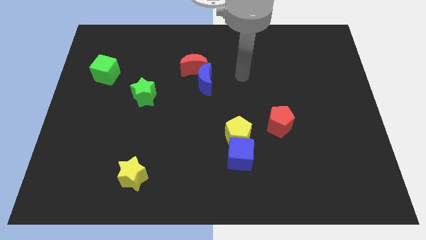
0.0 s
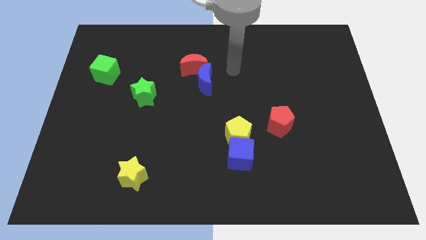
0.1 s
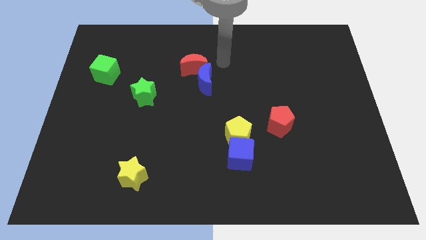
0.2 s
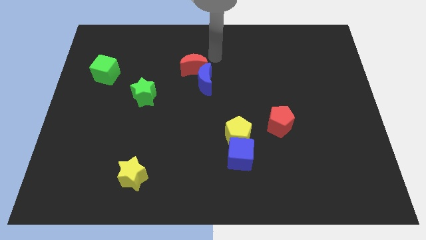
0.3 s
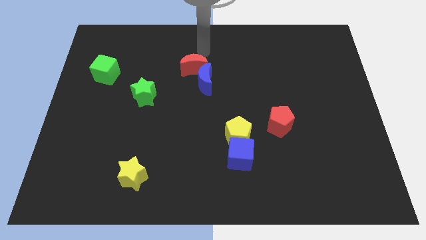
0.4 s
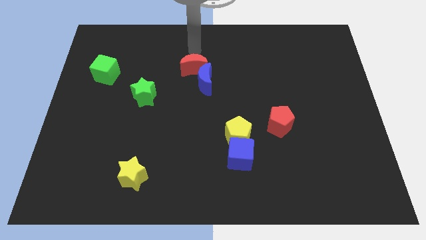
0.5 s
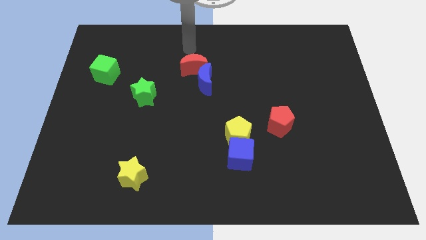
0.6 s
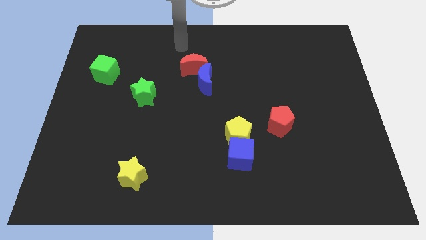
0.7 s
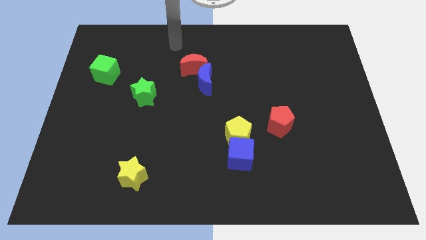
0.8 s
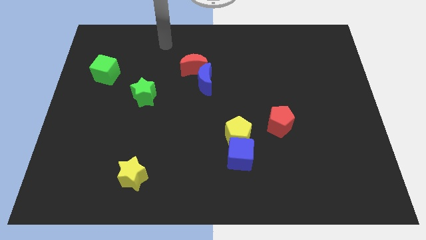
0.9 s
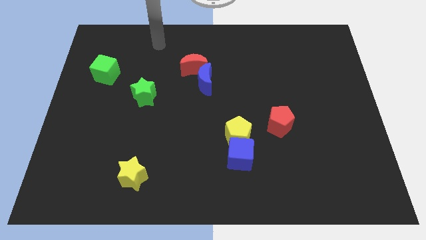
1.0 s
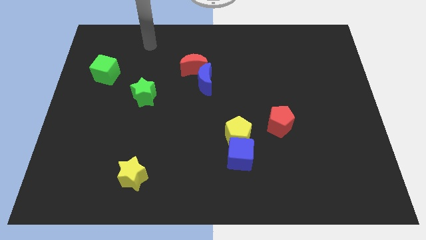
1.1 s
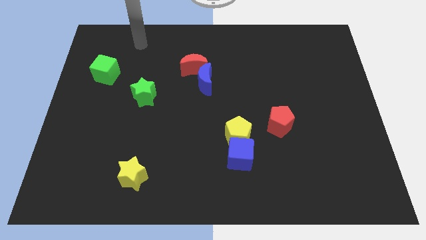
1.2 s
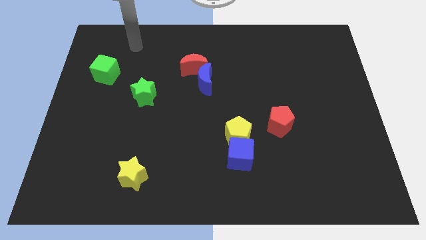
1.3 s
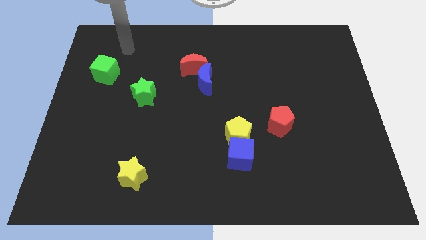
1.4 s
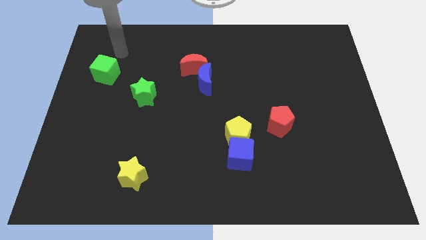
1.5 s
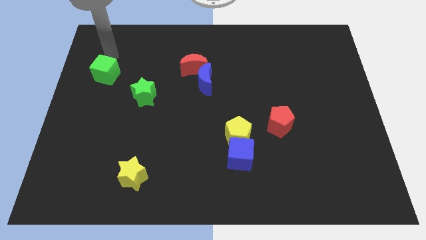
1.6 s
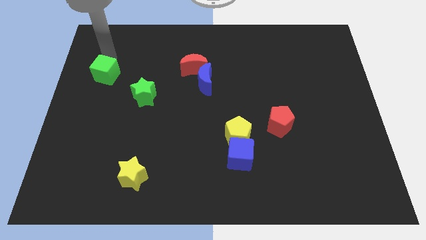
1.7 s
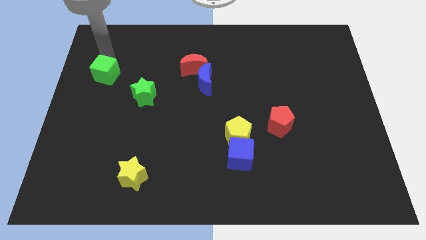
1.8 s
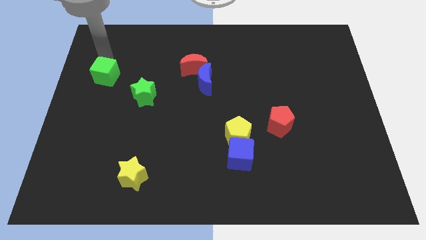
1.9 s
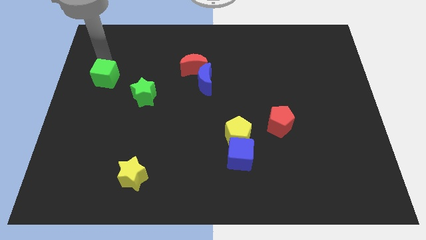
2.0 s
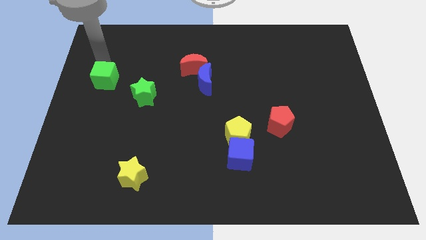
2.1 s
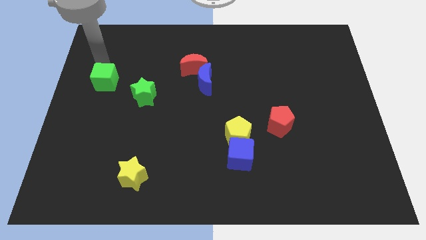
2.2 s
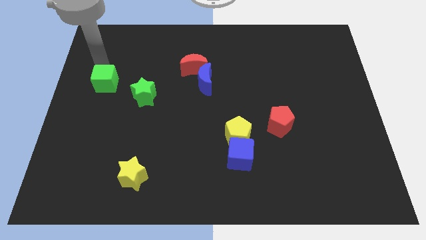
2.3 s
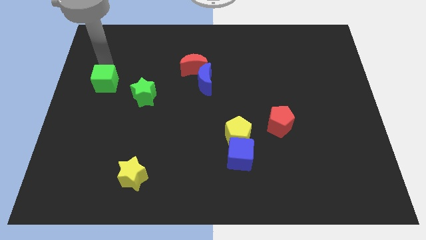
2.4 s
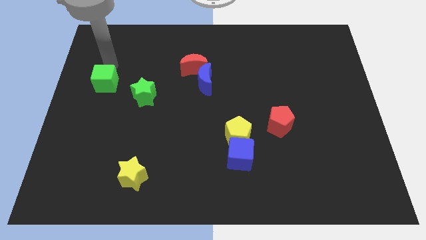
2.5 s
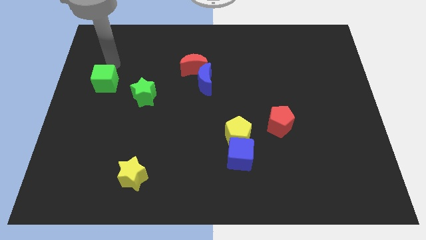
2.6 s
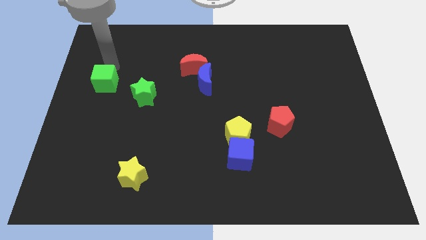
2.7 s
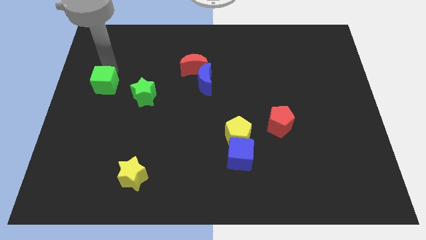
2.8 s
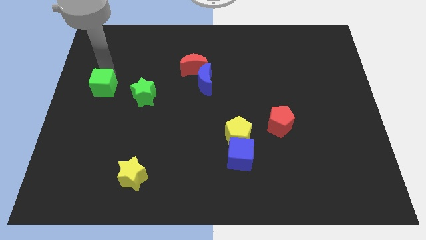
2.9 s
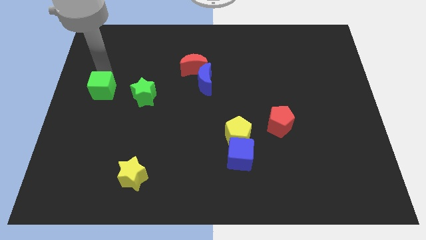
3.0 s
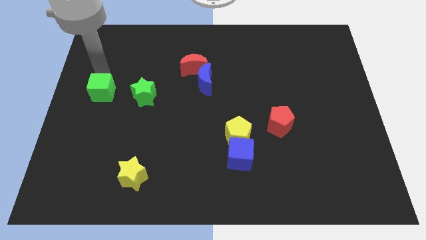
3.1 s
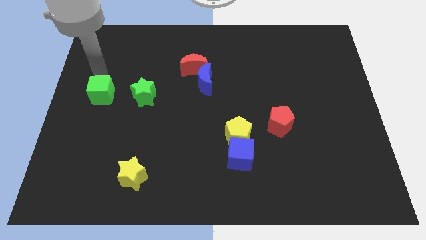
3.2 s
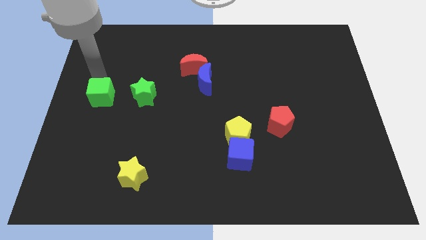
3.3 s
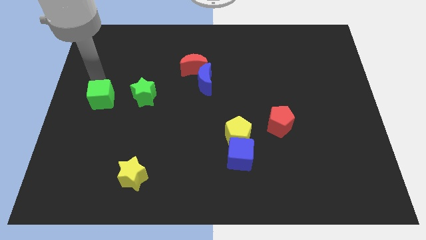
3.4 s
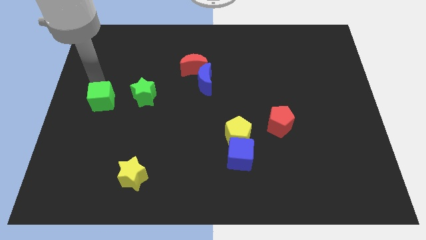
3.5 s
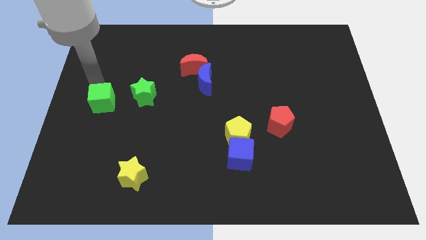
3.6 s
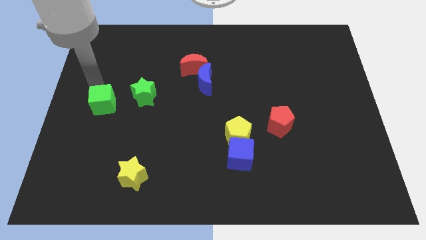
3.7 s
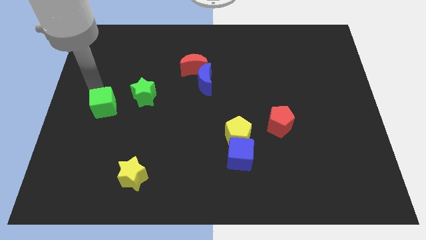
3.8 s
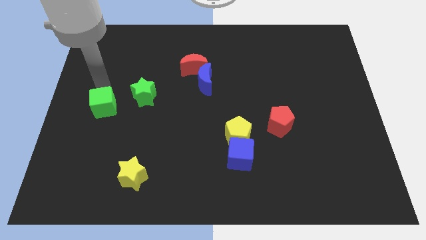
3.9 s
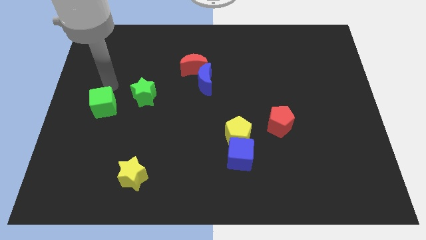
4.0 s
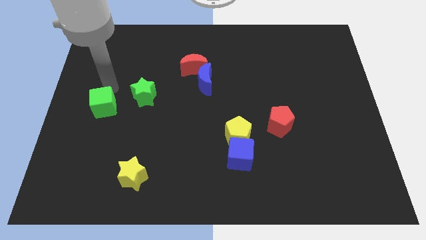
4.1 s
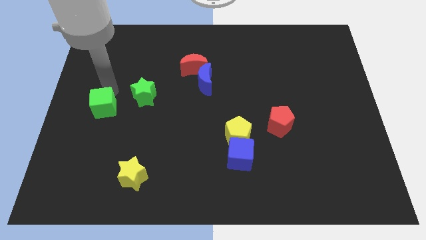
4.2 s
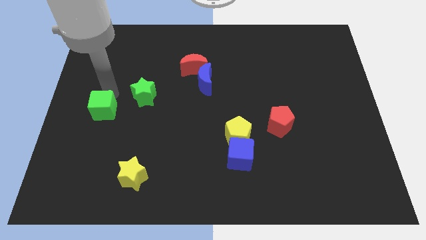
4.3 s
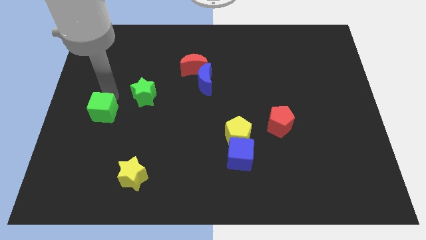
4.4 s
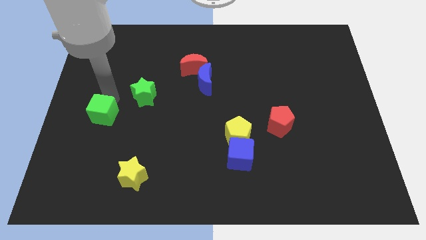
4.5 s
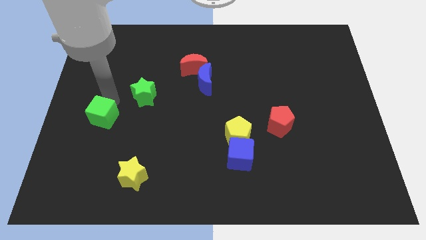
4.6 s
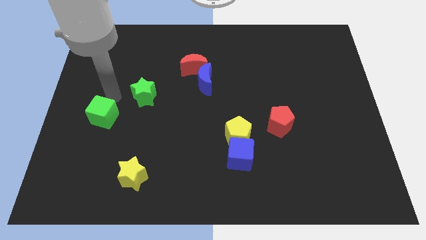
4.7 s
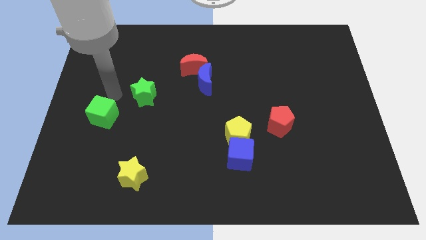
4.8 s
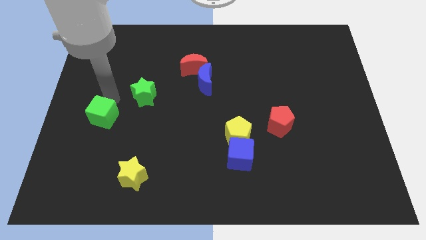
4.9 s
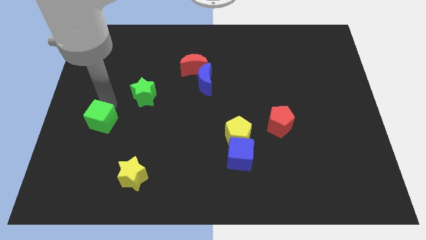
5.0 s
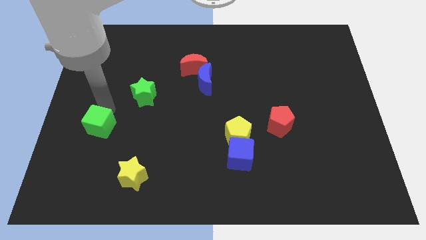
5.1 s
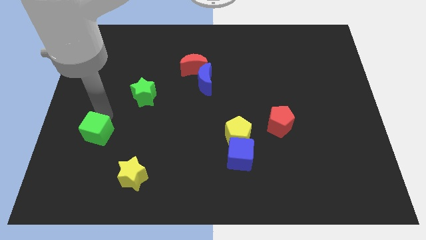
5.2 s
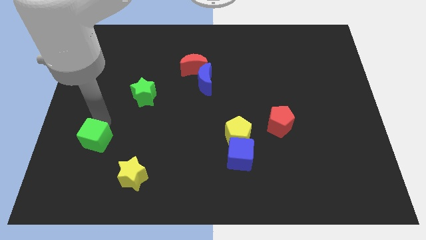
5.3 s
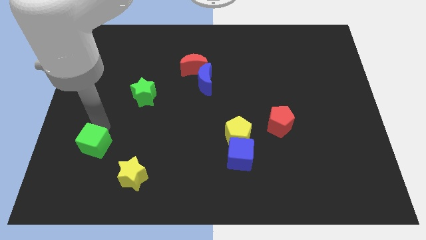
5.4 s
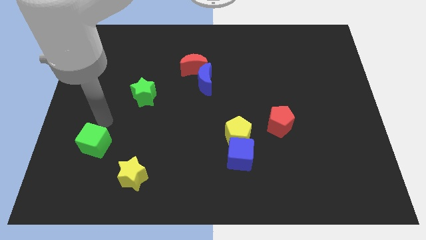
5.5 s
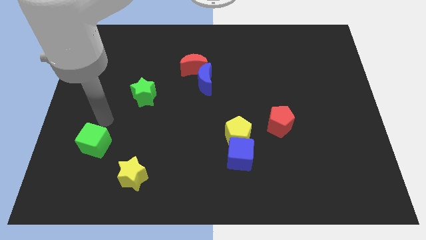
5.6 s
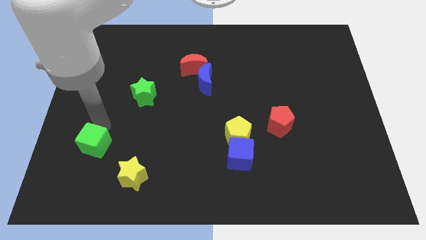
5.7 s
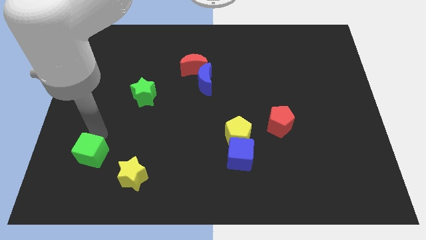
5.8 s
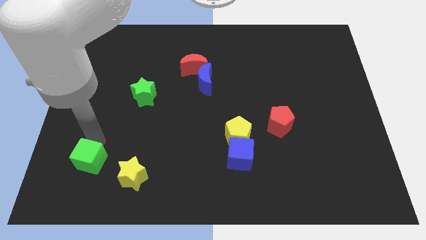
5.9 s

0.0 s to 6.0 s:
push the green cube just left of the yellow star
